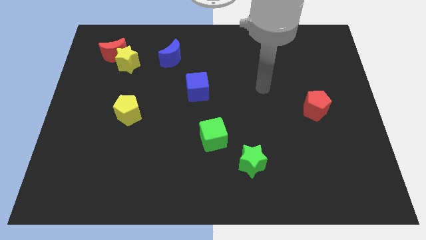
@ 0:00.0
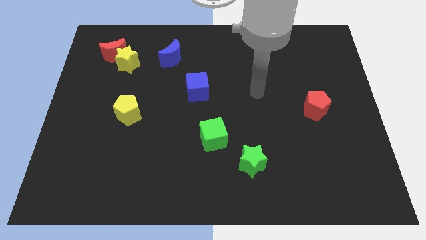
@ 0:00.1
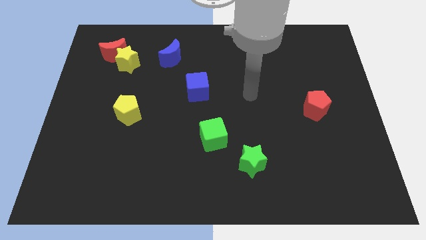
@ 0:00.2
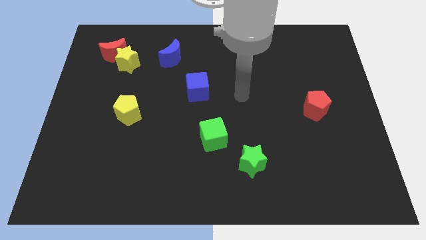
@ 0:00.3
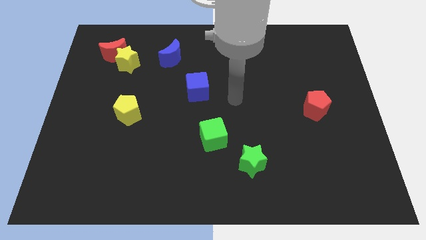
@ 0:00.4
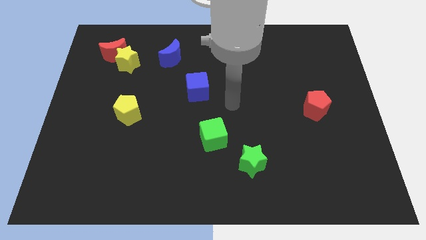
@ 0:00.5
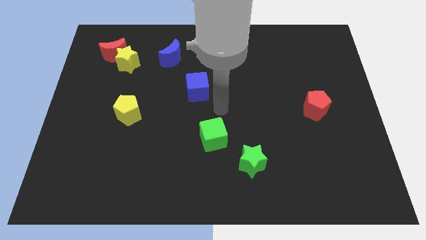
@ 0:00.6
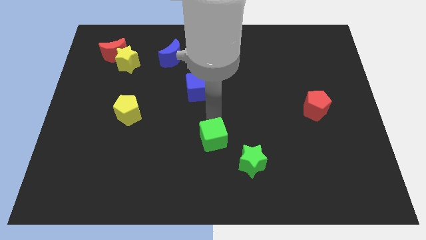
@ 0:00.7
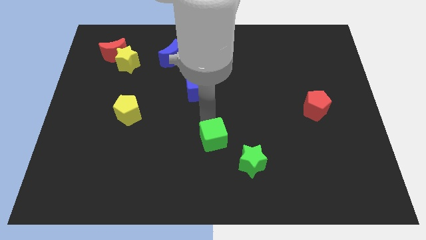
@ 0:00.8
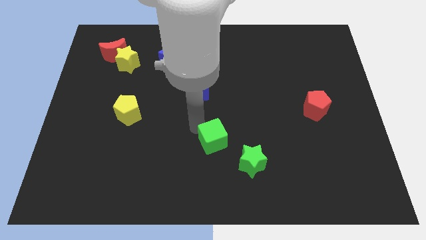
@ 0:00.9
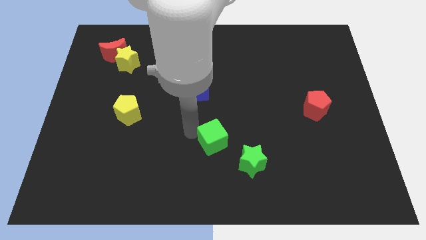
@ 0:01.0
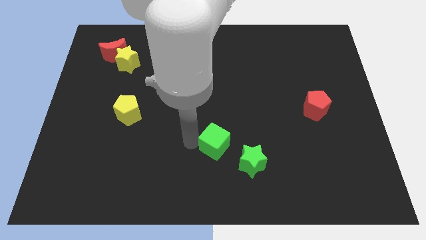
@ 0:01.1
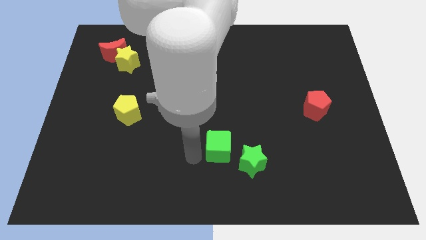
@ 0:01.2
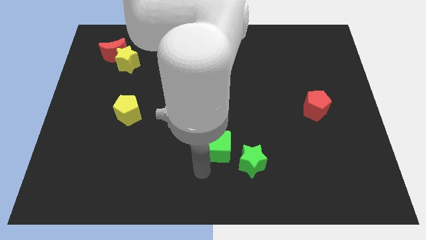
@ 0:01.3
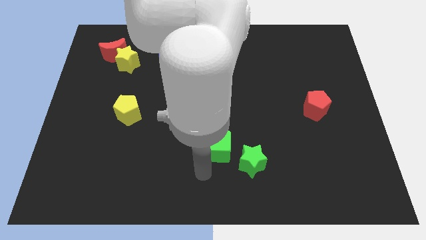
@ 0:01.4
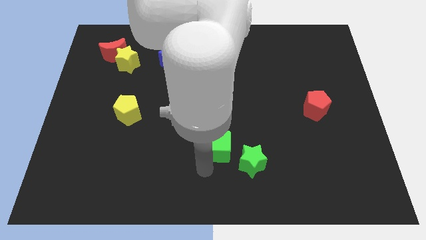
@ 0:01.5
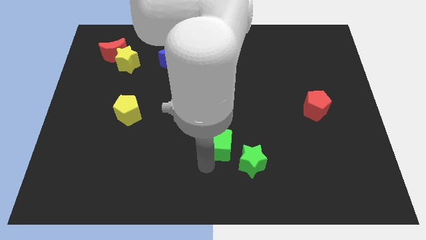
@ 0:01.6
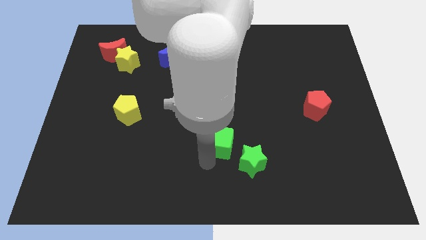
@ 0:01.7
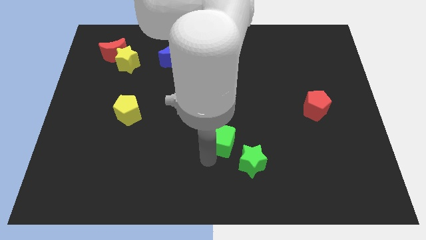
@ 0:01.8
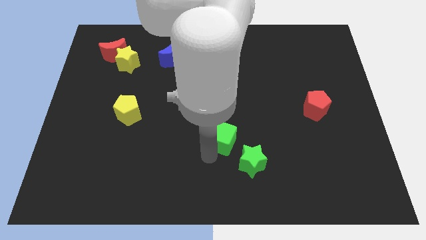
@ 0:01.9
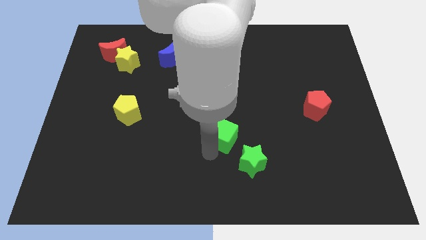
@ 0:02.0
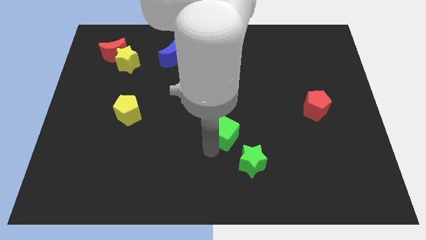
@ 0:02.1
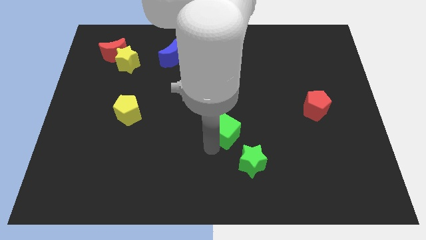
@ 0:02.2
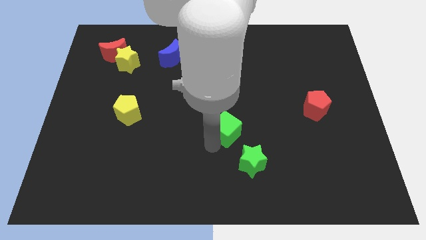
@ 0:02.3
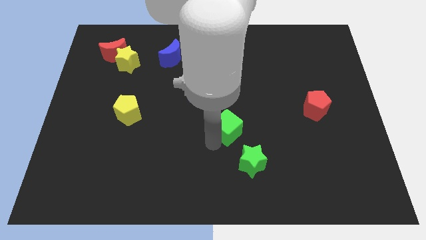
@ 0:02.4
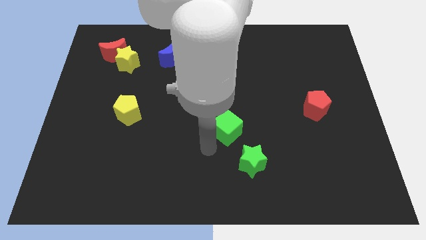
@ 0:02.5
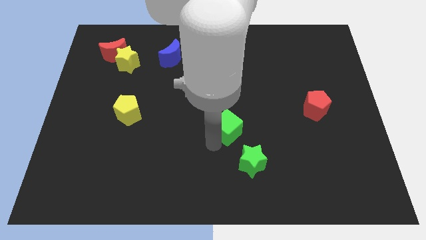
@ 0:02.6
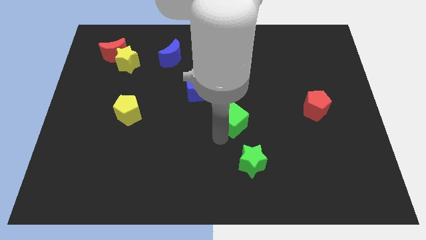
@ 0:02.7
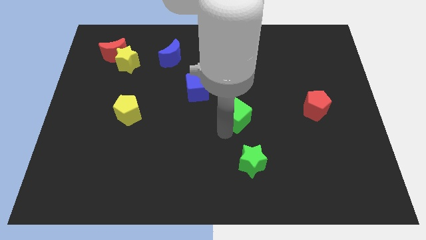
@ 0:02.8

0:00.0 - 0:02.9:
push the green cube diagonally upwards and right slightly

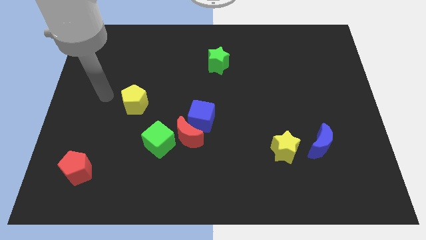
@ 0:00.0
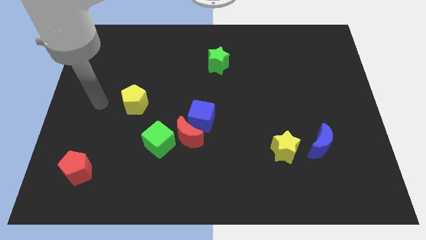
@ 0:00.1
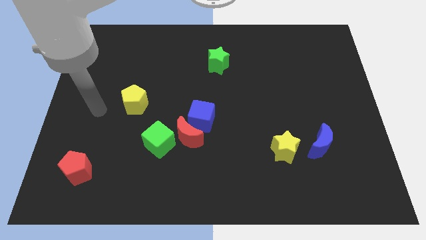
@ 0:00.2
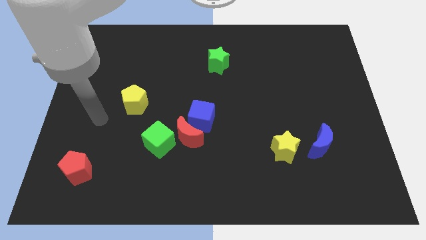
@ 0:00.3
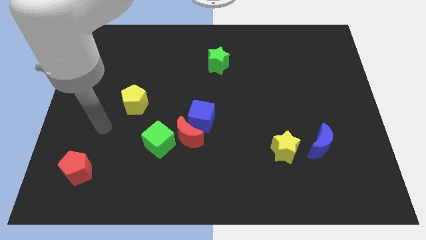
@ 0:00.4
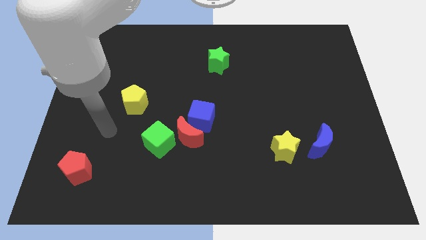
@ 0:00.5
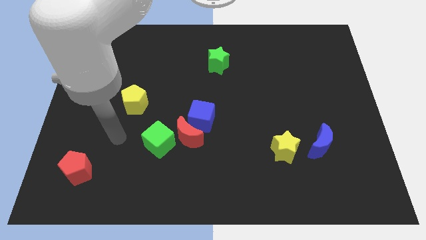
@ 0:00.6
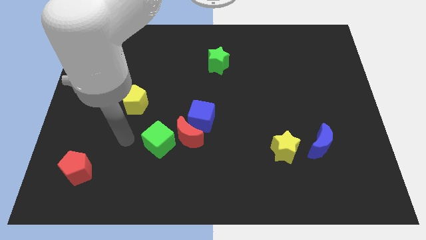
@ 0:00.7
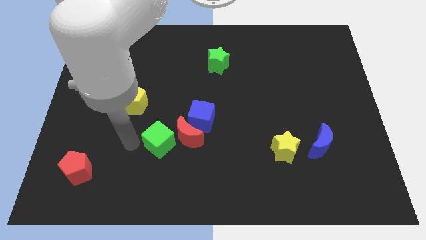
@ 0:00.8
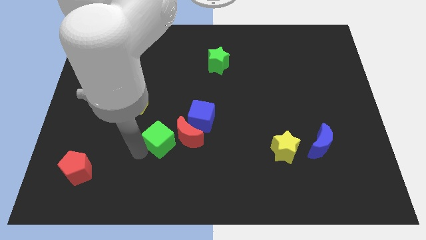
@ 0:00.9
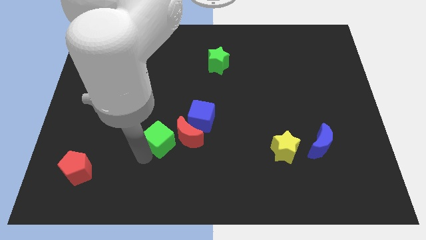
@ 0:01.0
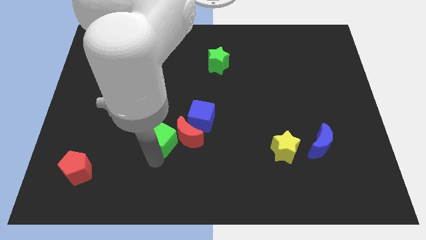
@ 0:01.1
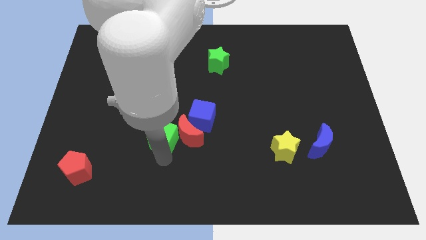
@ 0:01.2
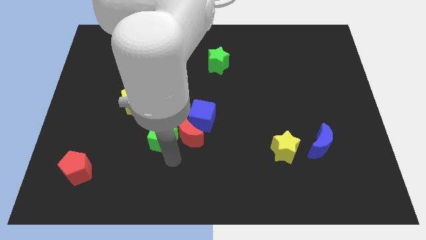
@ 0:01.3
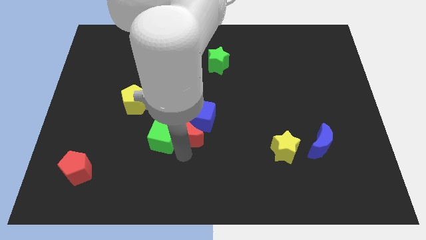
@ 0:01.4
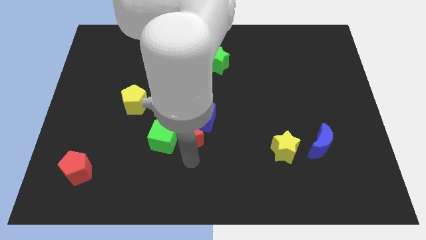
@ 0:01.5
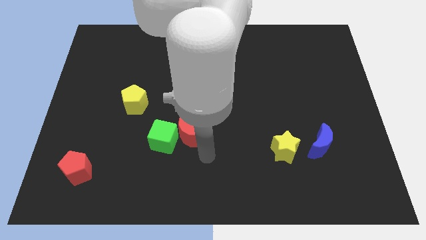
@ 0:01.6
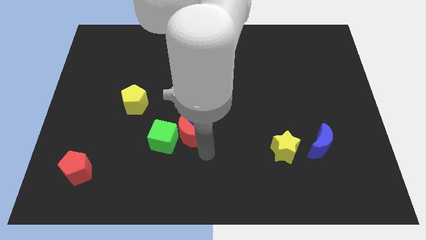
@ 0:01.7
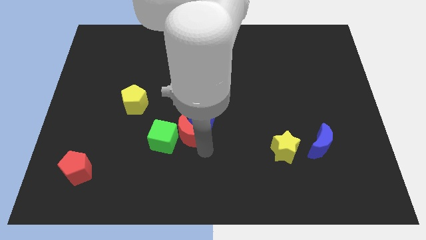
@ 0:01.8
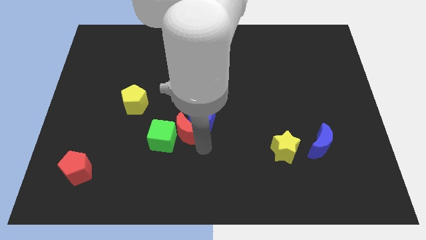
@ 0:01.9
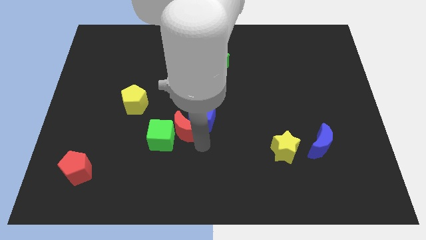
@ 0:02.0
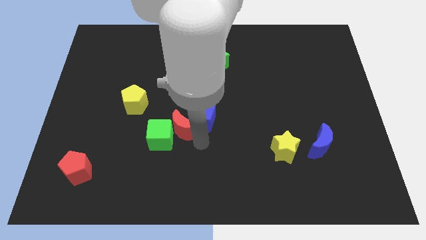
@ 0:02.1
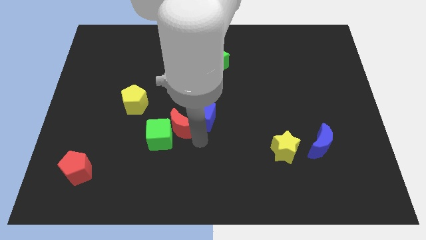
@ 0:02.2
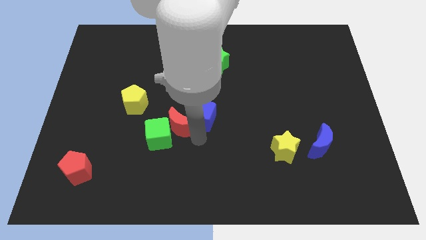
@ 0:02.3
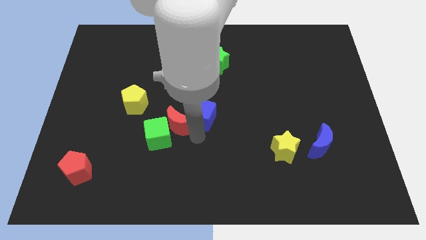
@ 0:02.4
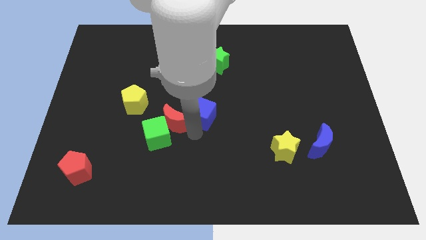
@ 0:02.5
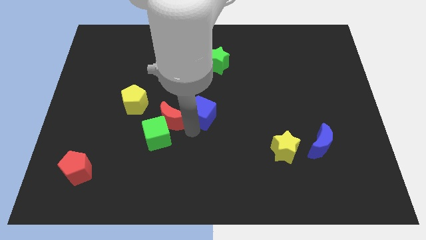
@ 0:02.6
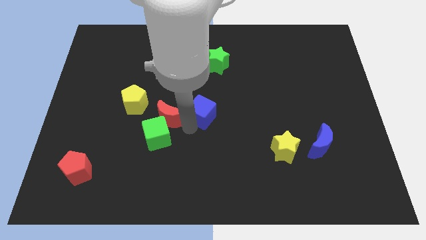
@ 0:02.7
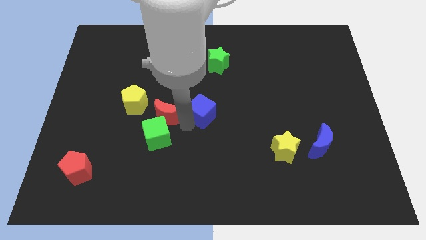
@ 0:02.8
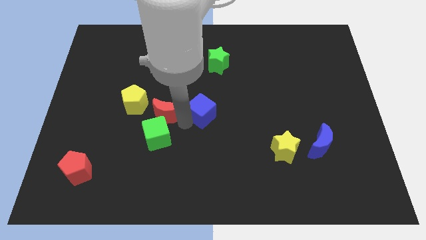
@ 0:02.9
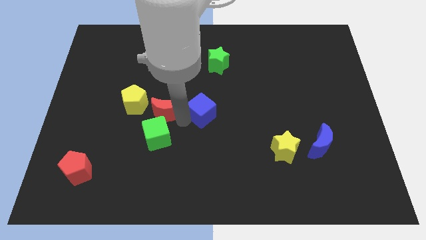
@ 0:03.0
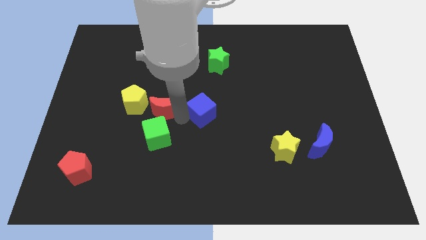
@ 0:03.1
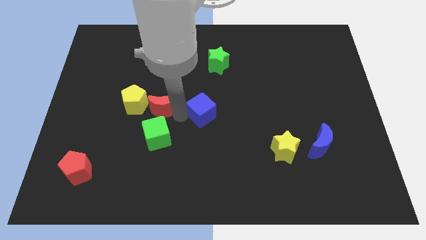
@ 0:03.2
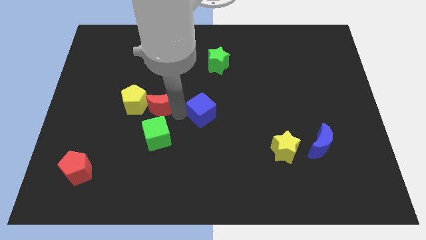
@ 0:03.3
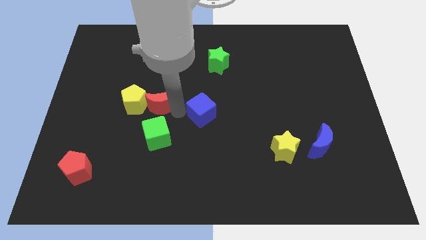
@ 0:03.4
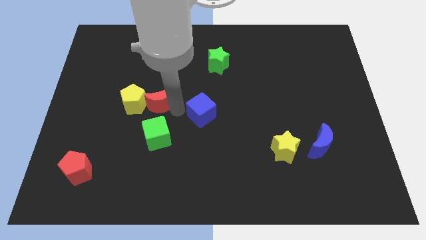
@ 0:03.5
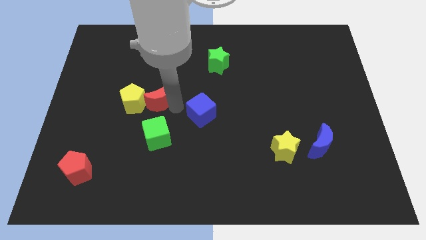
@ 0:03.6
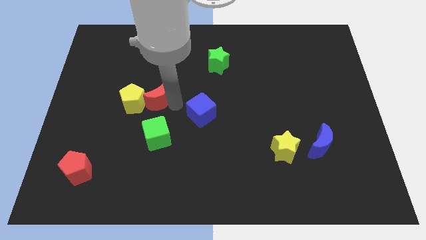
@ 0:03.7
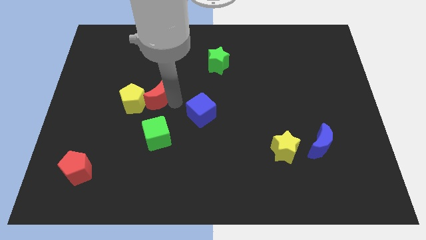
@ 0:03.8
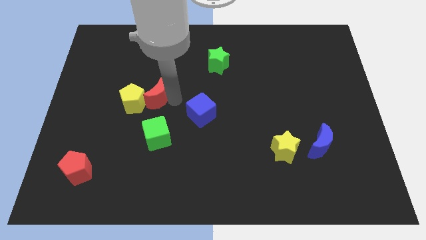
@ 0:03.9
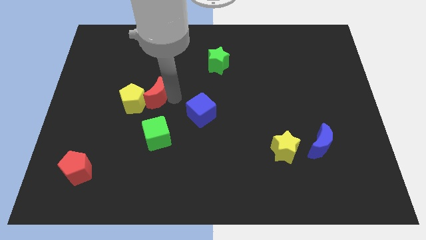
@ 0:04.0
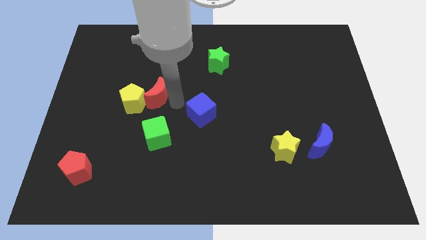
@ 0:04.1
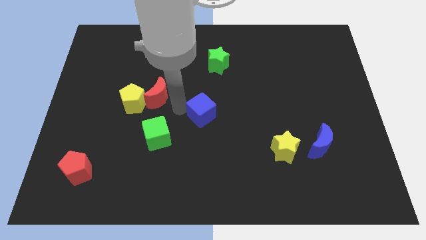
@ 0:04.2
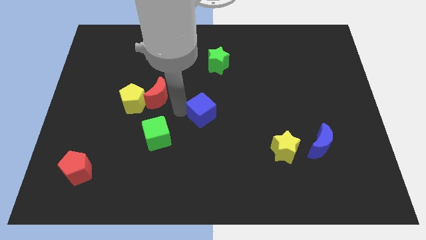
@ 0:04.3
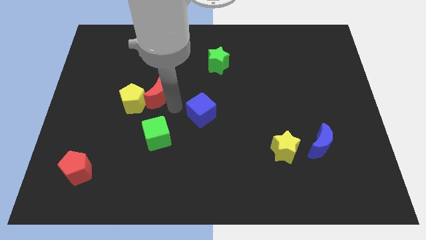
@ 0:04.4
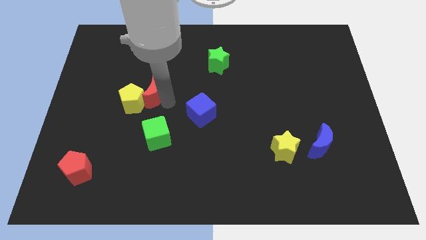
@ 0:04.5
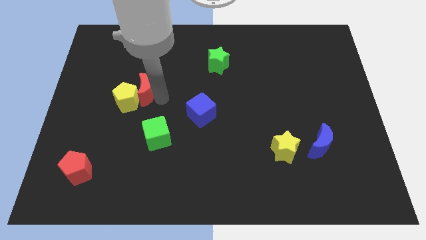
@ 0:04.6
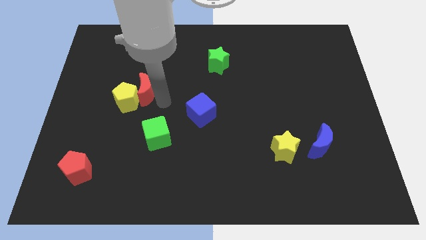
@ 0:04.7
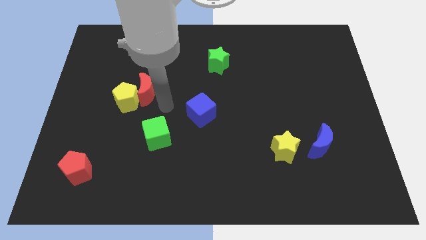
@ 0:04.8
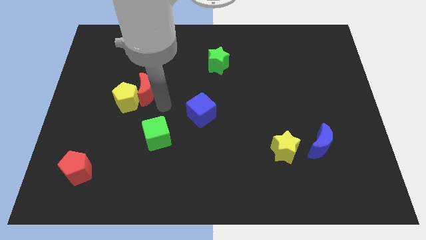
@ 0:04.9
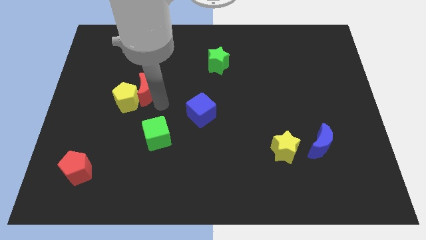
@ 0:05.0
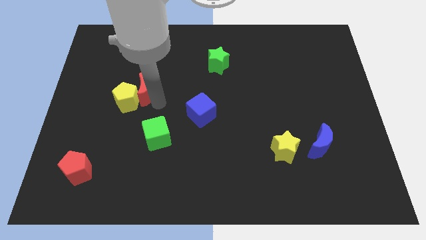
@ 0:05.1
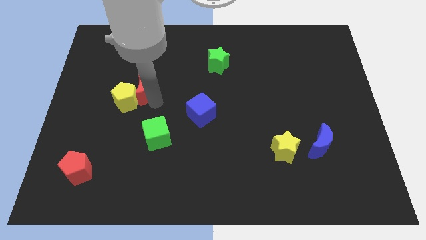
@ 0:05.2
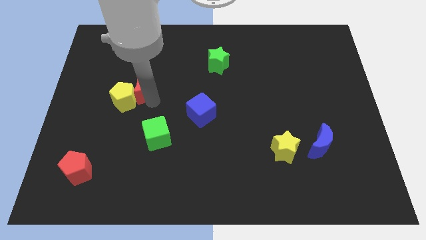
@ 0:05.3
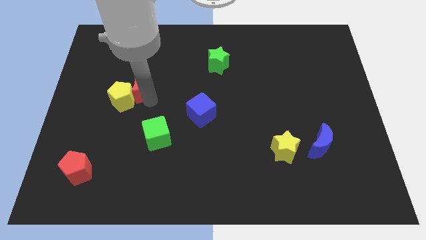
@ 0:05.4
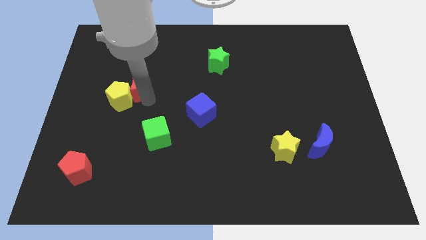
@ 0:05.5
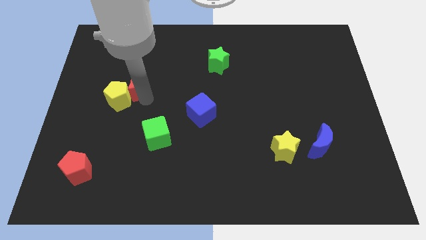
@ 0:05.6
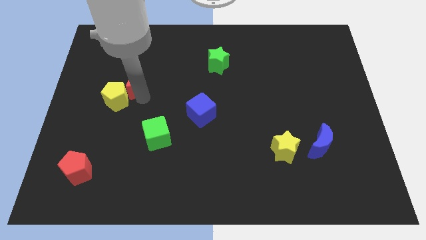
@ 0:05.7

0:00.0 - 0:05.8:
move the red moon upwards and left diagonally
